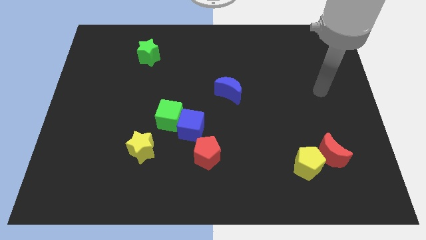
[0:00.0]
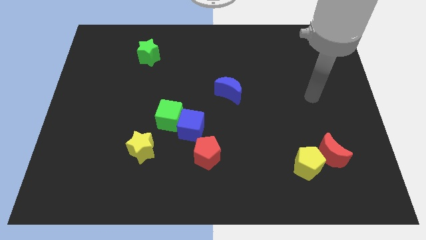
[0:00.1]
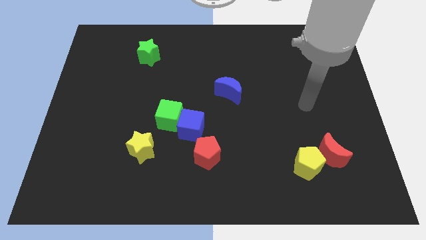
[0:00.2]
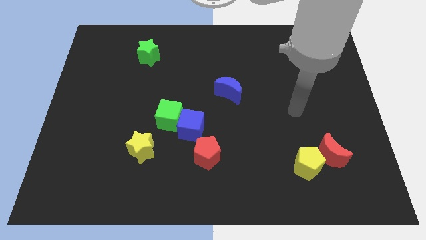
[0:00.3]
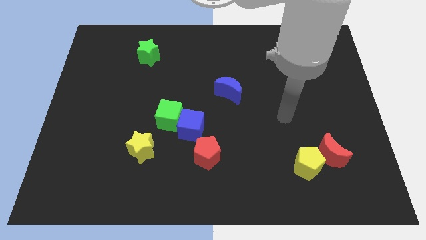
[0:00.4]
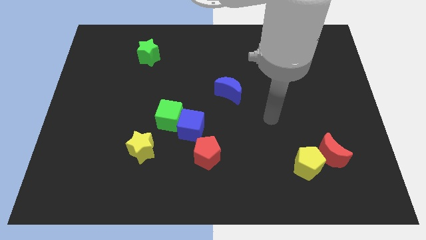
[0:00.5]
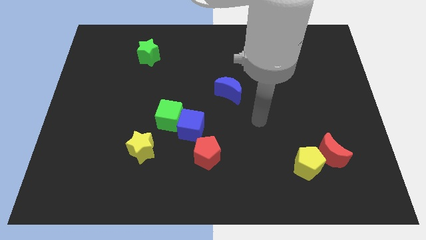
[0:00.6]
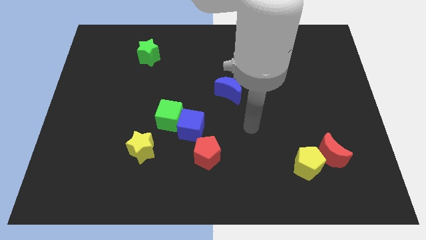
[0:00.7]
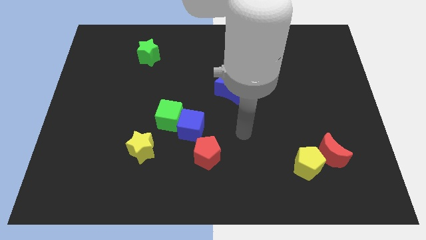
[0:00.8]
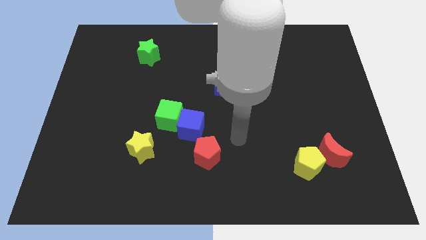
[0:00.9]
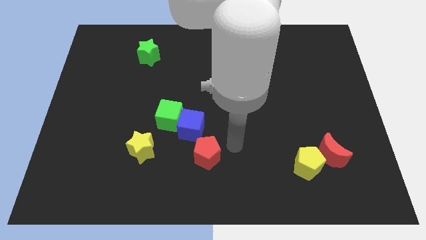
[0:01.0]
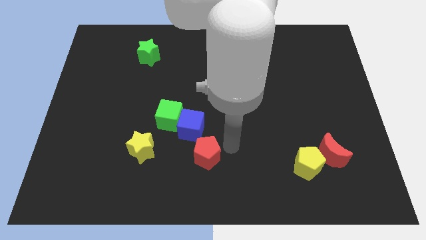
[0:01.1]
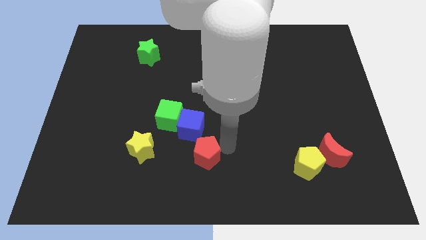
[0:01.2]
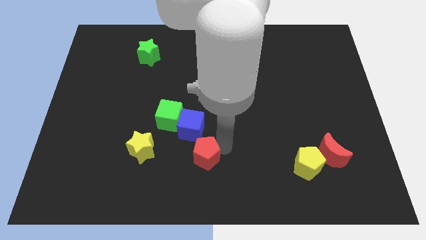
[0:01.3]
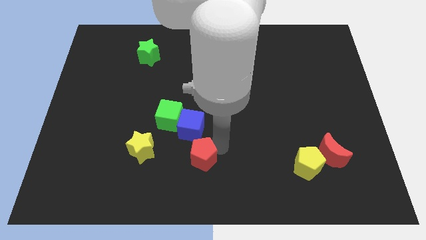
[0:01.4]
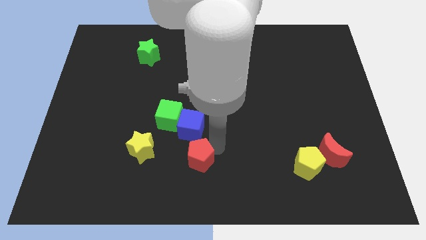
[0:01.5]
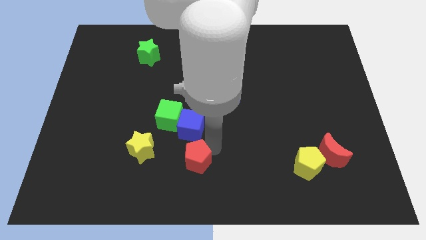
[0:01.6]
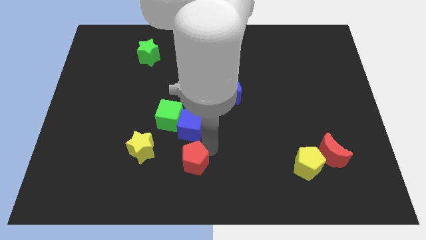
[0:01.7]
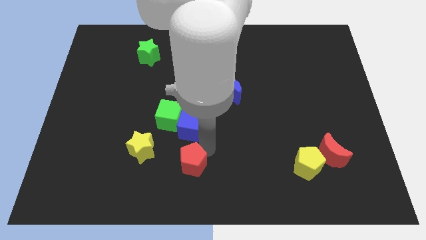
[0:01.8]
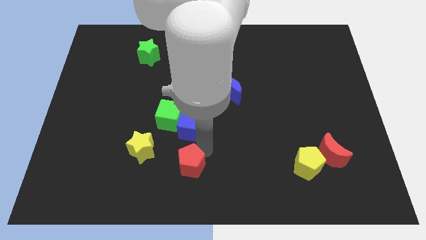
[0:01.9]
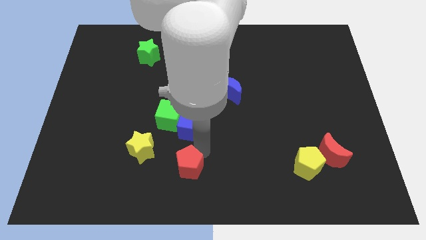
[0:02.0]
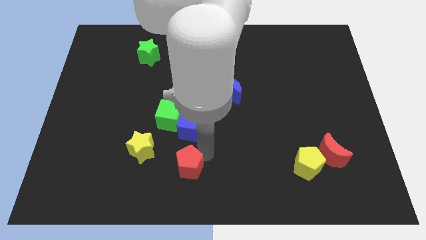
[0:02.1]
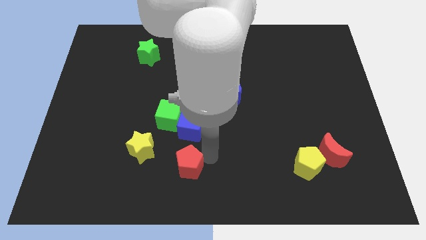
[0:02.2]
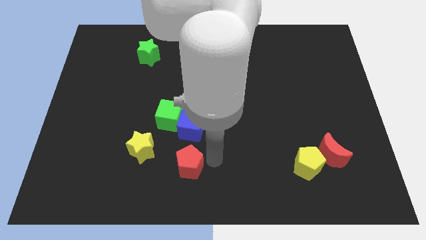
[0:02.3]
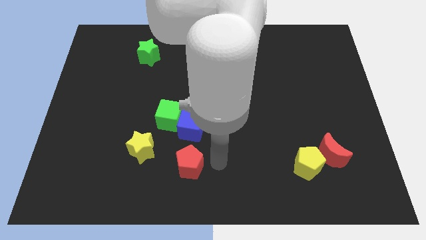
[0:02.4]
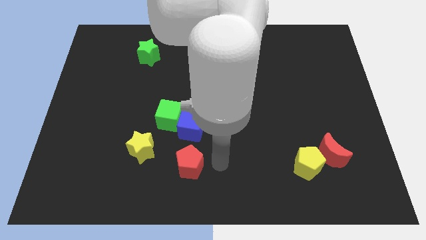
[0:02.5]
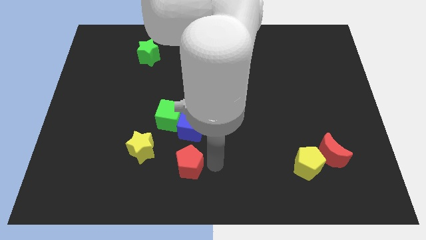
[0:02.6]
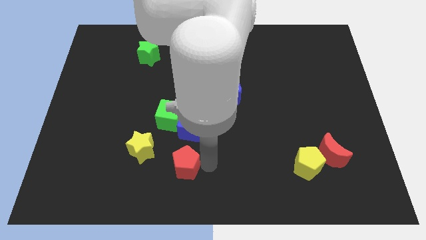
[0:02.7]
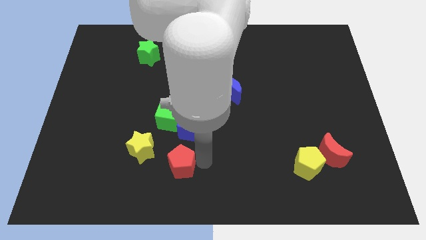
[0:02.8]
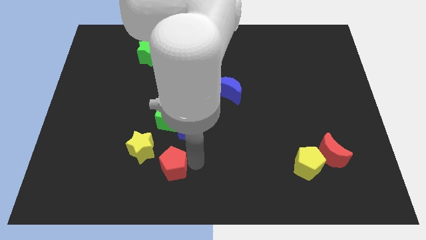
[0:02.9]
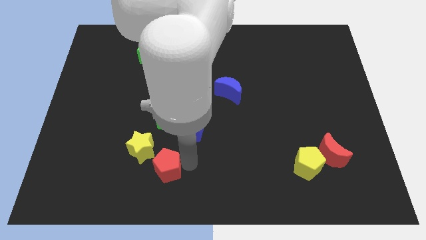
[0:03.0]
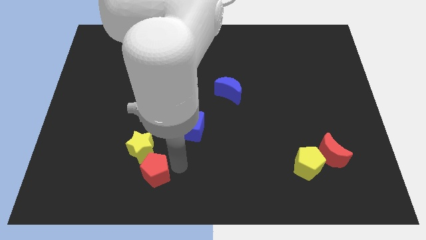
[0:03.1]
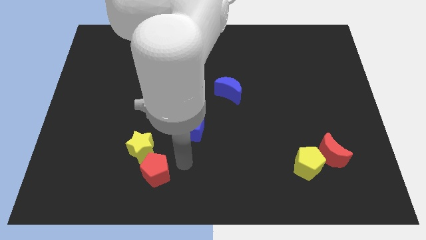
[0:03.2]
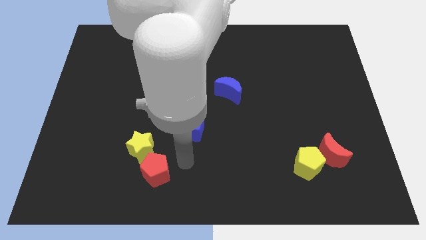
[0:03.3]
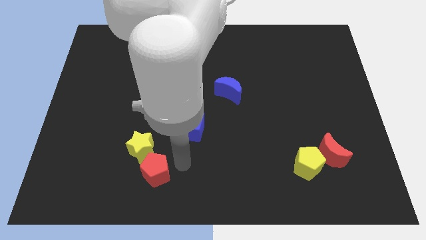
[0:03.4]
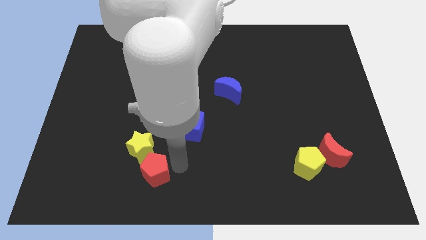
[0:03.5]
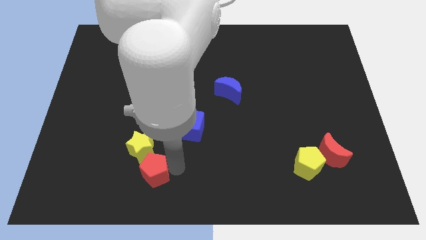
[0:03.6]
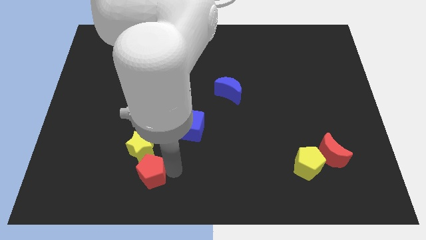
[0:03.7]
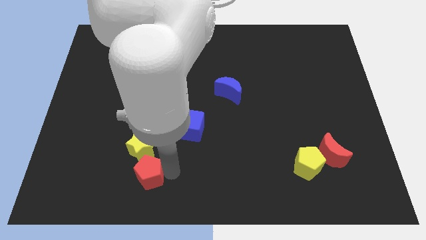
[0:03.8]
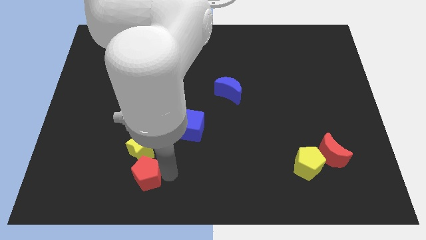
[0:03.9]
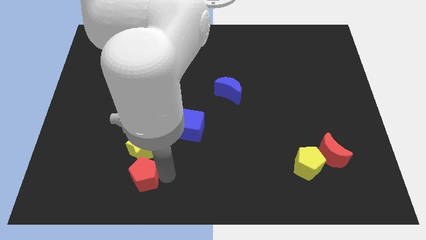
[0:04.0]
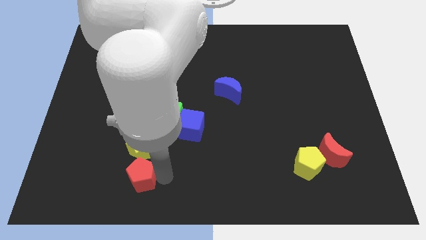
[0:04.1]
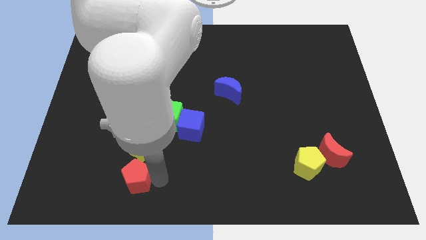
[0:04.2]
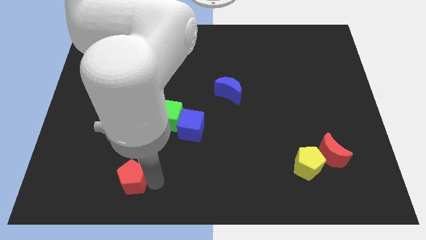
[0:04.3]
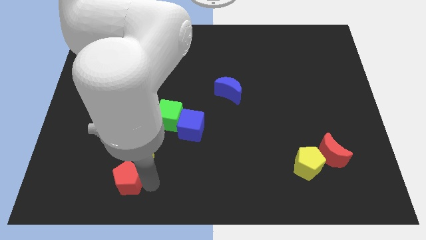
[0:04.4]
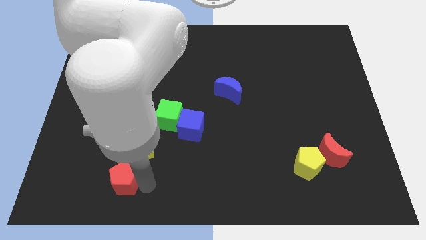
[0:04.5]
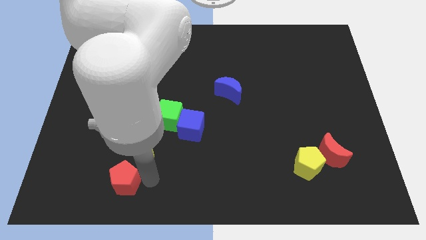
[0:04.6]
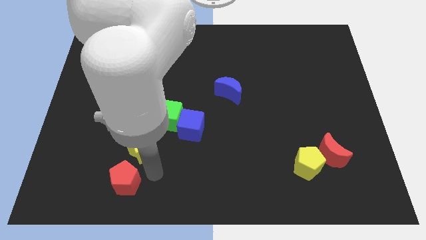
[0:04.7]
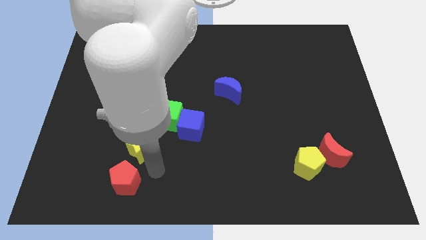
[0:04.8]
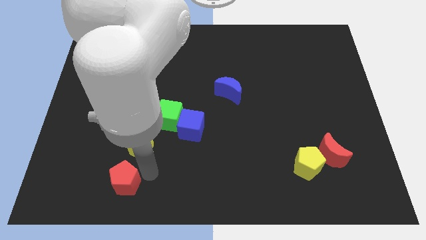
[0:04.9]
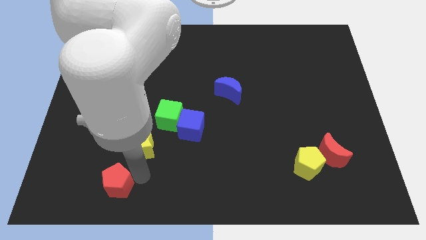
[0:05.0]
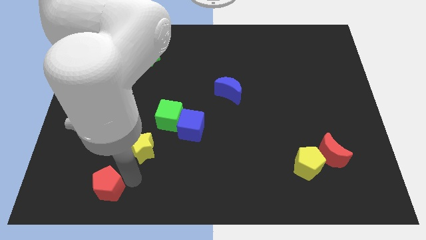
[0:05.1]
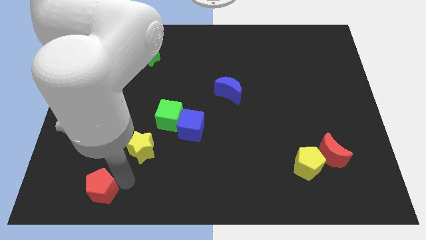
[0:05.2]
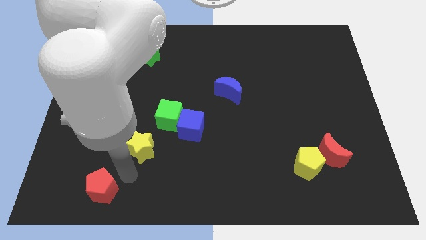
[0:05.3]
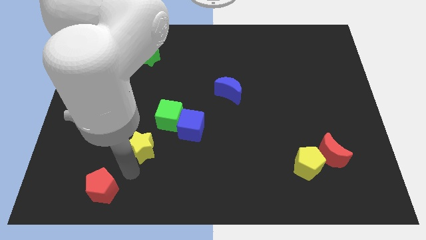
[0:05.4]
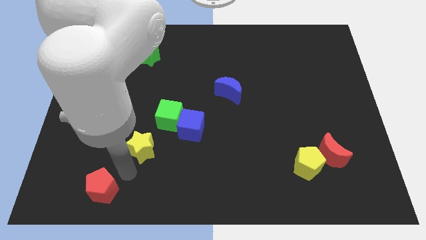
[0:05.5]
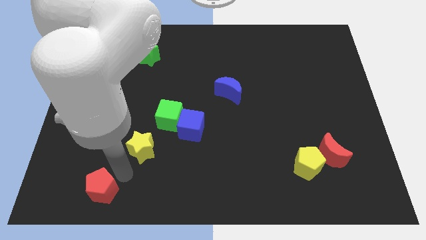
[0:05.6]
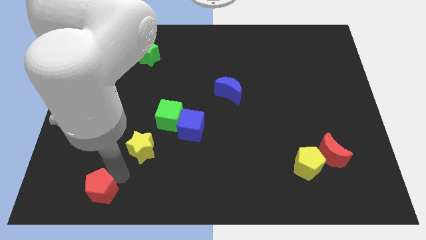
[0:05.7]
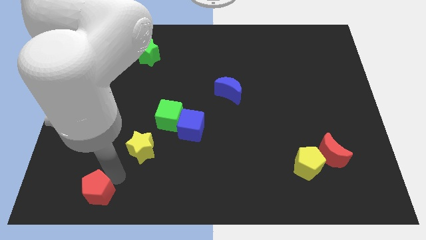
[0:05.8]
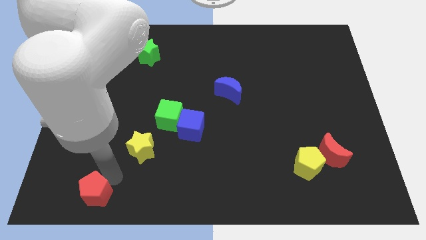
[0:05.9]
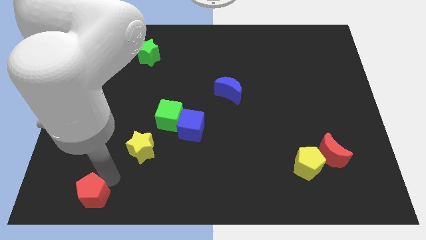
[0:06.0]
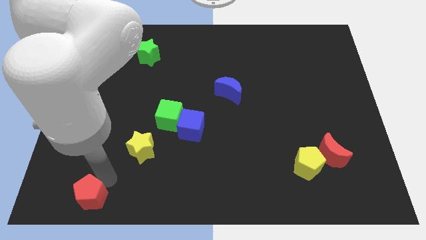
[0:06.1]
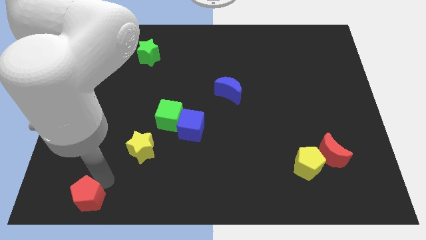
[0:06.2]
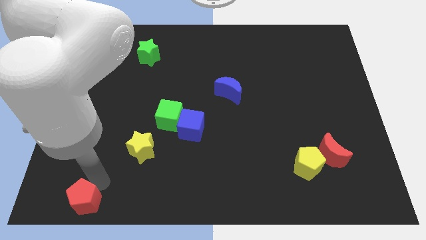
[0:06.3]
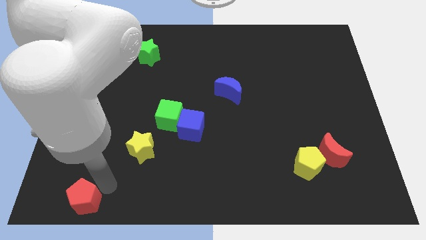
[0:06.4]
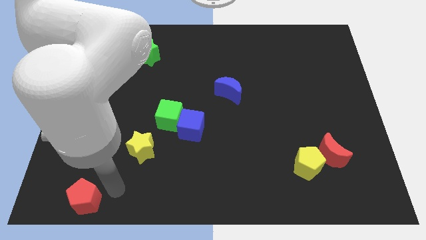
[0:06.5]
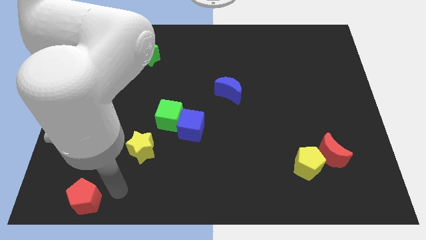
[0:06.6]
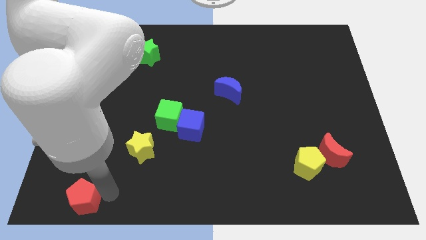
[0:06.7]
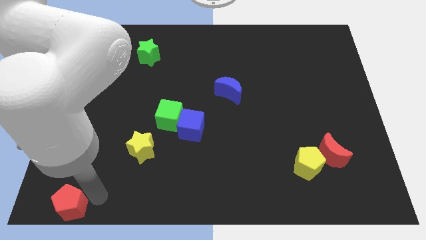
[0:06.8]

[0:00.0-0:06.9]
push the red pentagon to the lower left corner

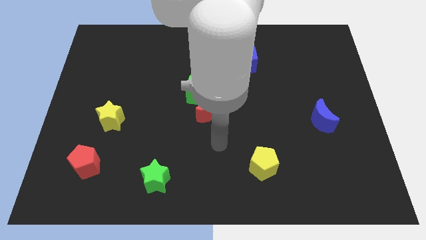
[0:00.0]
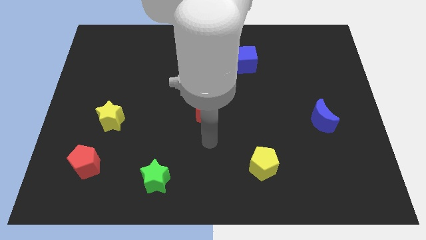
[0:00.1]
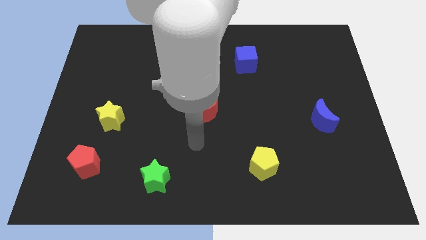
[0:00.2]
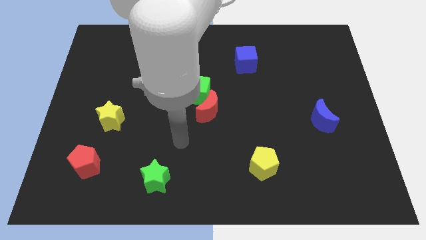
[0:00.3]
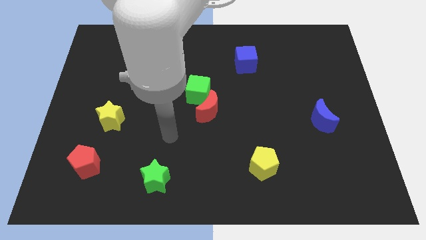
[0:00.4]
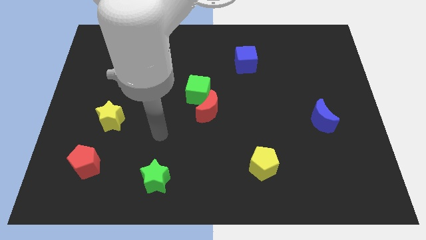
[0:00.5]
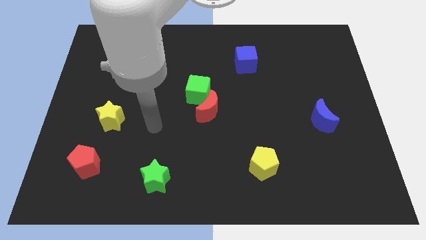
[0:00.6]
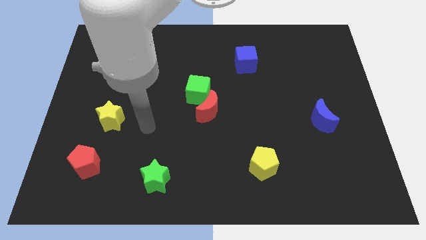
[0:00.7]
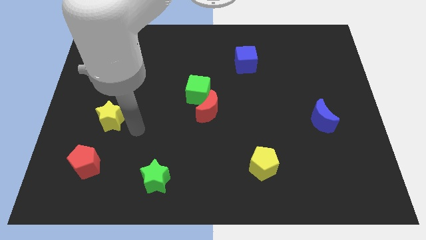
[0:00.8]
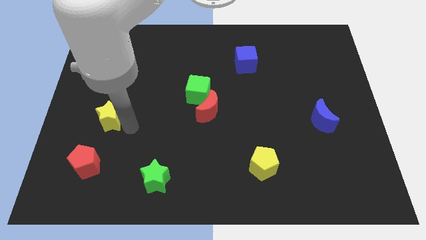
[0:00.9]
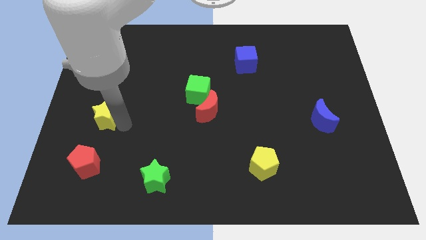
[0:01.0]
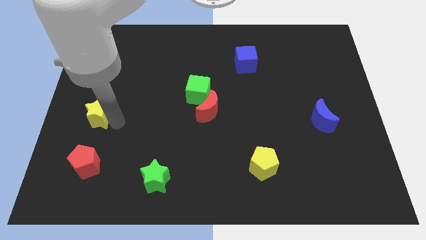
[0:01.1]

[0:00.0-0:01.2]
put the yellow star to the center left
